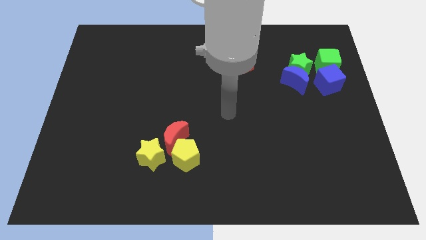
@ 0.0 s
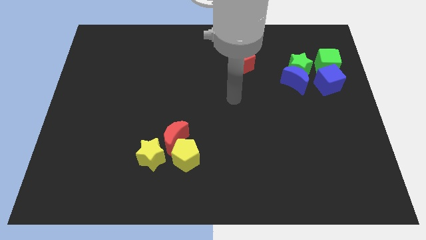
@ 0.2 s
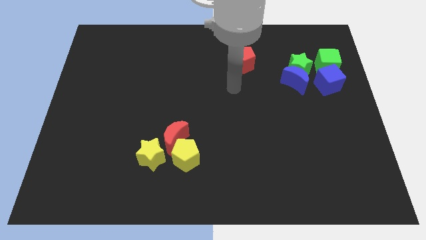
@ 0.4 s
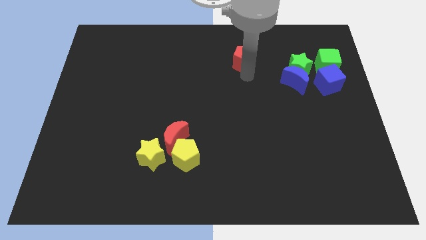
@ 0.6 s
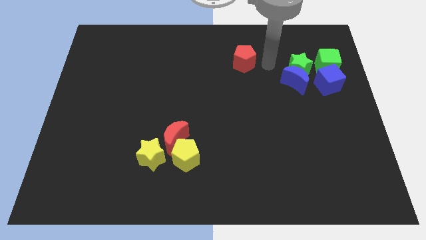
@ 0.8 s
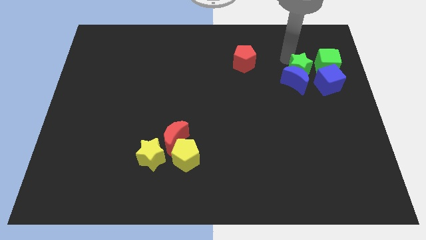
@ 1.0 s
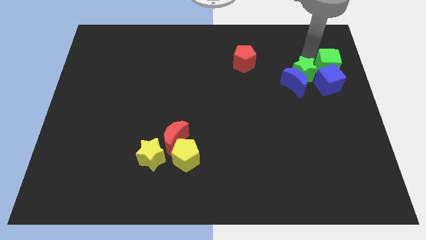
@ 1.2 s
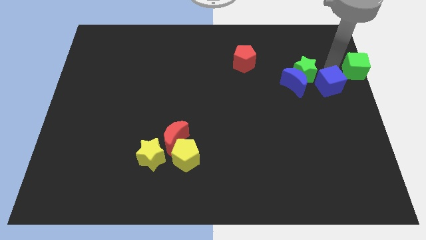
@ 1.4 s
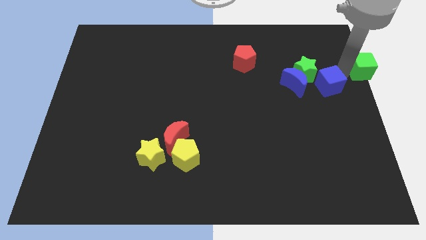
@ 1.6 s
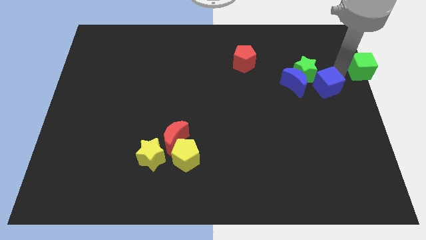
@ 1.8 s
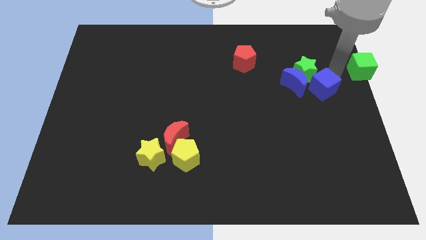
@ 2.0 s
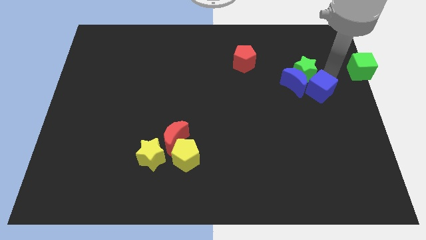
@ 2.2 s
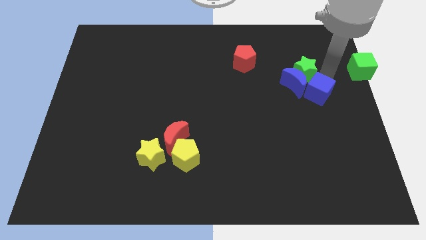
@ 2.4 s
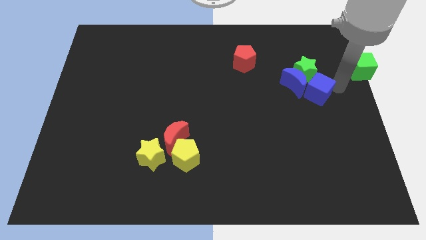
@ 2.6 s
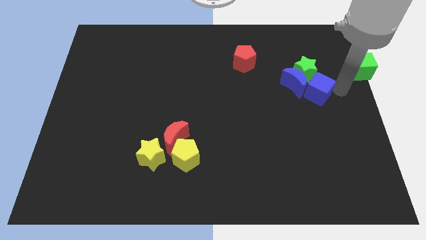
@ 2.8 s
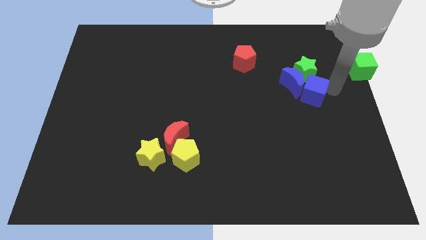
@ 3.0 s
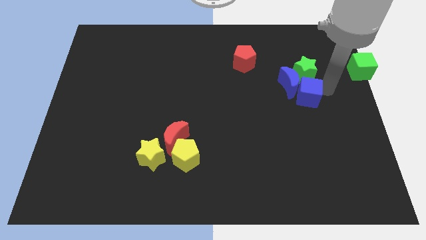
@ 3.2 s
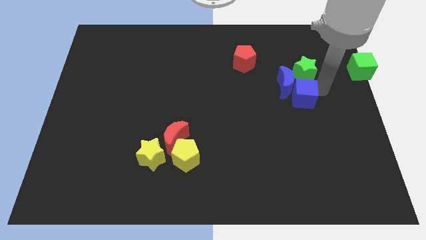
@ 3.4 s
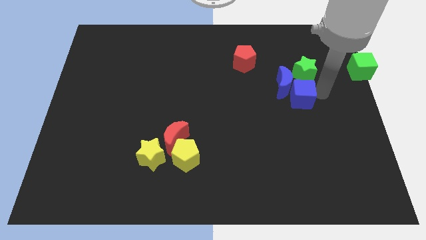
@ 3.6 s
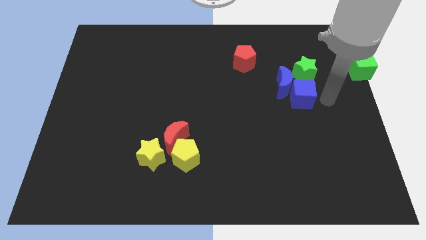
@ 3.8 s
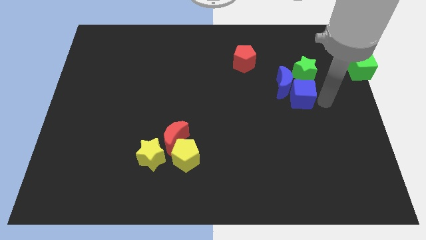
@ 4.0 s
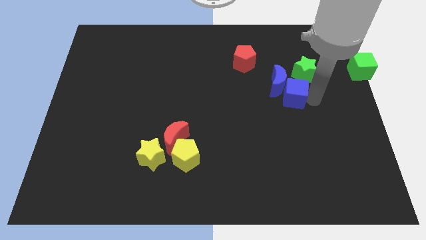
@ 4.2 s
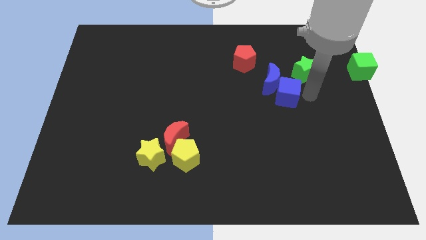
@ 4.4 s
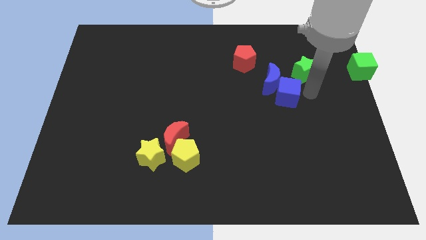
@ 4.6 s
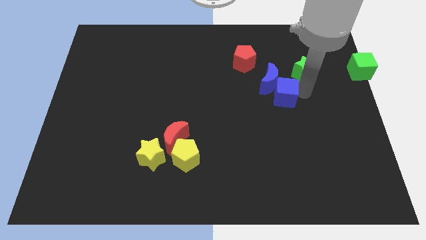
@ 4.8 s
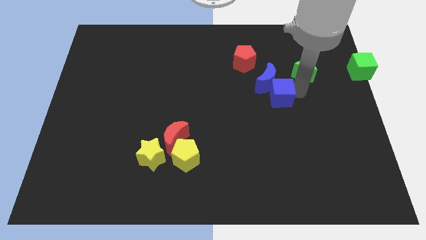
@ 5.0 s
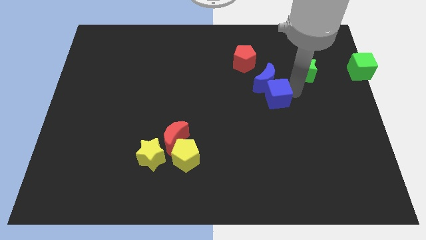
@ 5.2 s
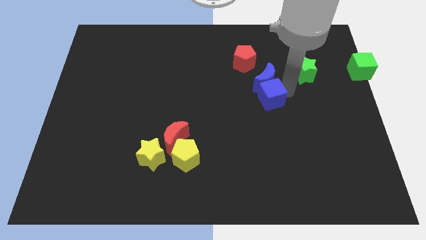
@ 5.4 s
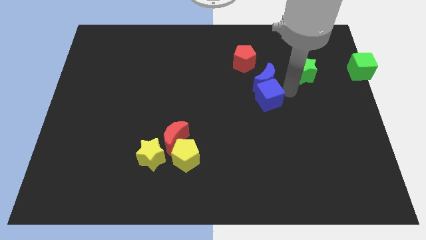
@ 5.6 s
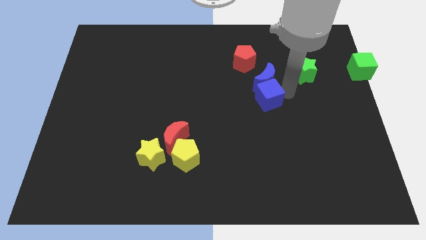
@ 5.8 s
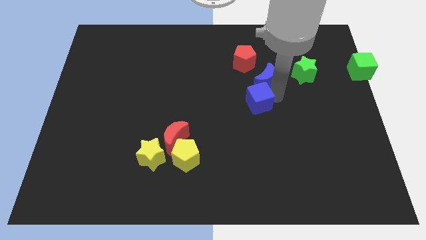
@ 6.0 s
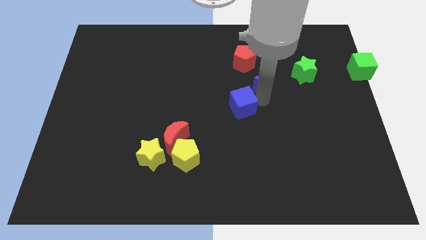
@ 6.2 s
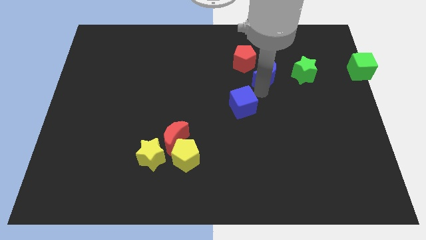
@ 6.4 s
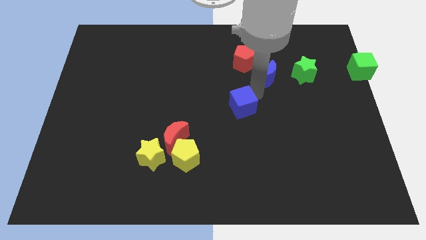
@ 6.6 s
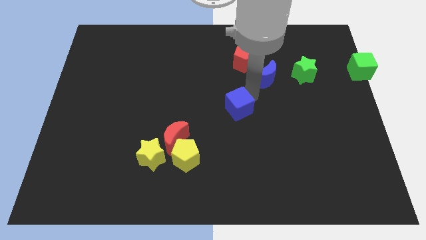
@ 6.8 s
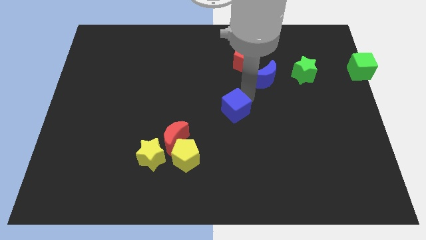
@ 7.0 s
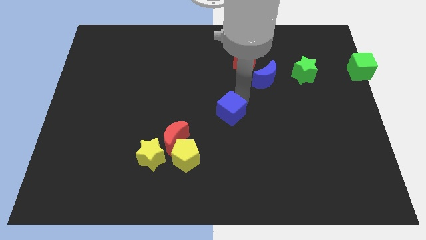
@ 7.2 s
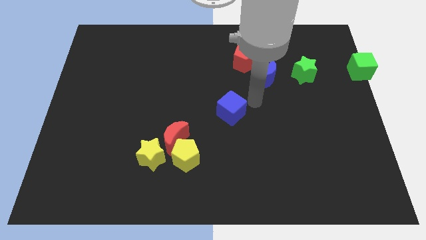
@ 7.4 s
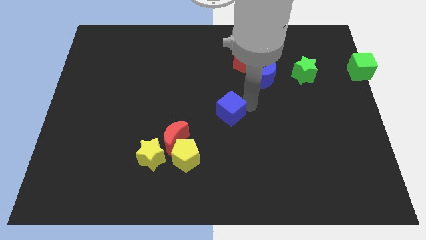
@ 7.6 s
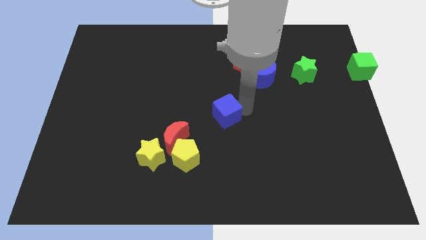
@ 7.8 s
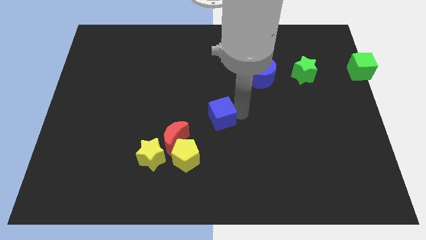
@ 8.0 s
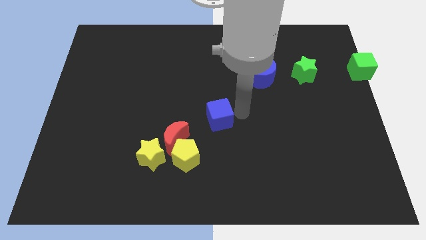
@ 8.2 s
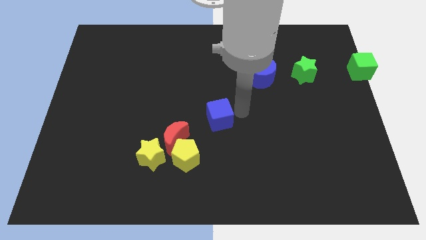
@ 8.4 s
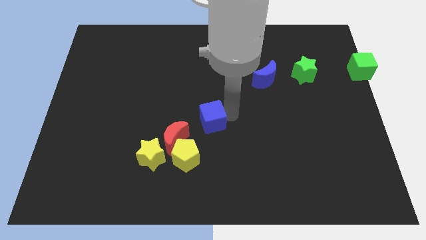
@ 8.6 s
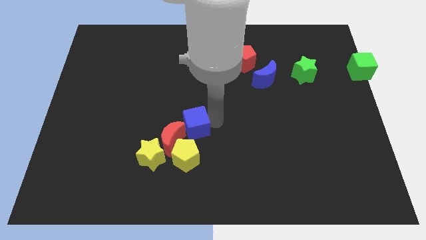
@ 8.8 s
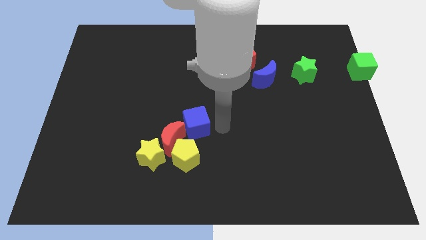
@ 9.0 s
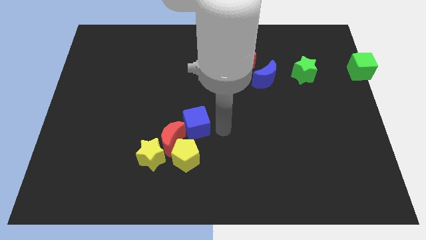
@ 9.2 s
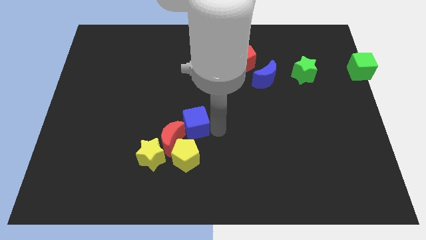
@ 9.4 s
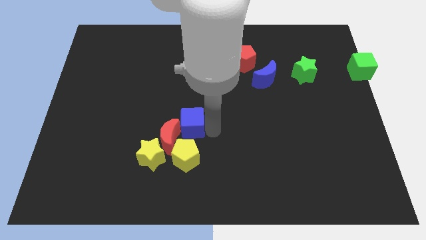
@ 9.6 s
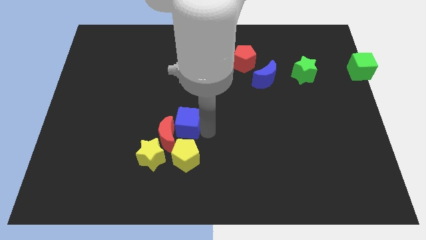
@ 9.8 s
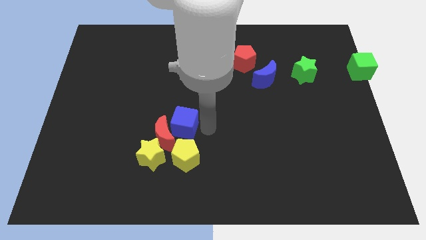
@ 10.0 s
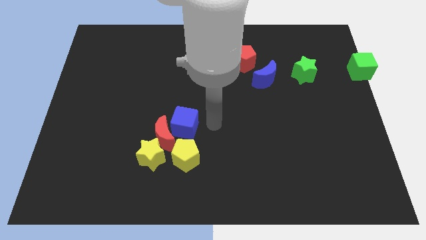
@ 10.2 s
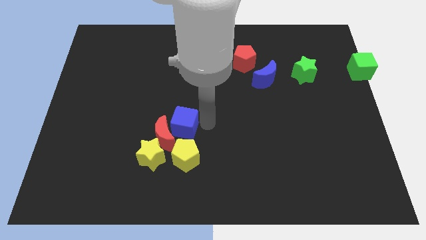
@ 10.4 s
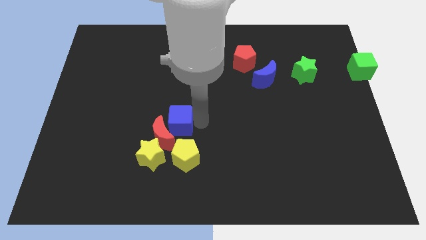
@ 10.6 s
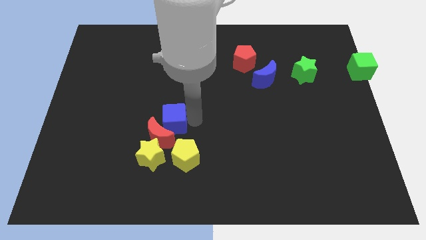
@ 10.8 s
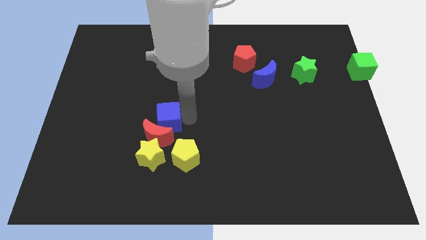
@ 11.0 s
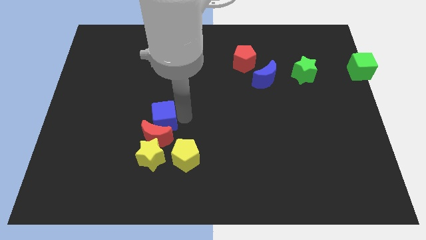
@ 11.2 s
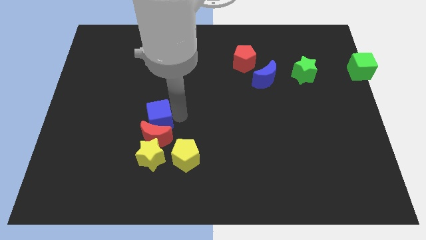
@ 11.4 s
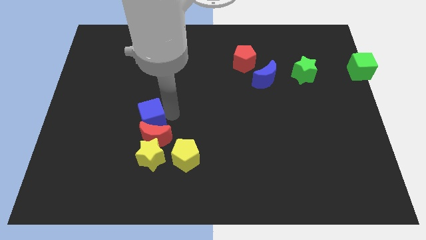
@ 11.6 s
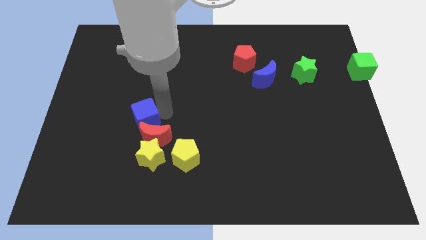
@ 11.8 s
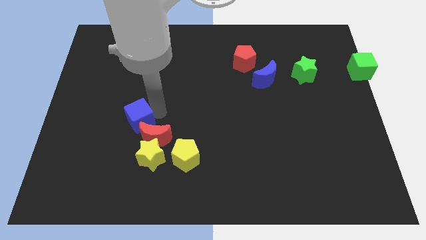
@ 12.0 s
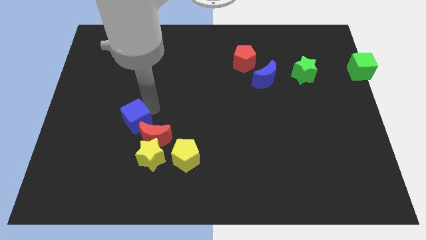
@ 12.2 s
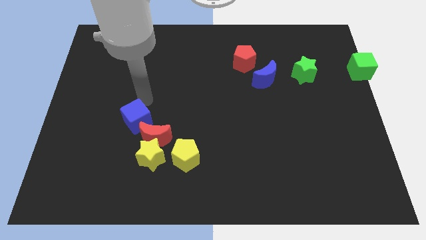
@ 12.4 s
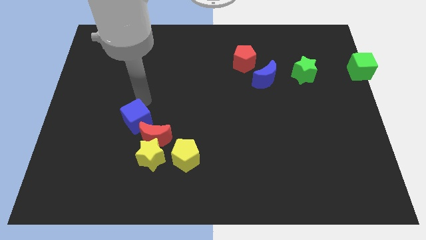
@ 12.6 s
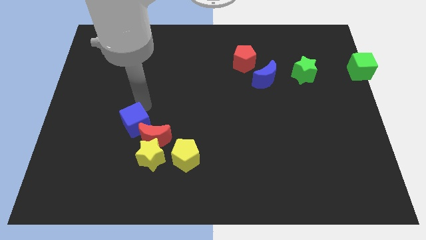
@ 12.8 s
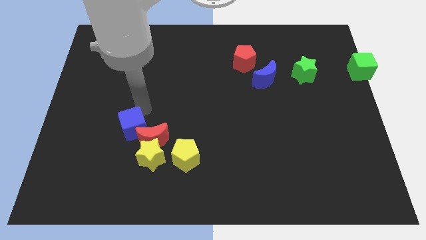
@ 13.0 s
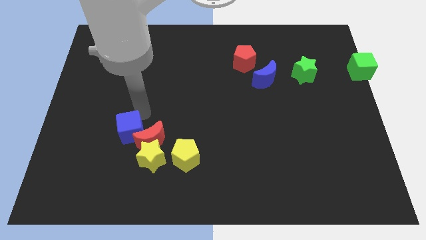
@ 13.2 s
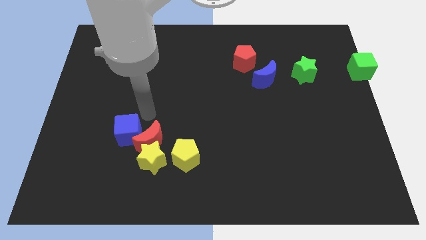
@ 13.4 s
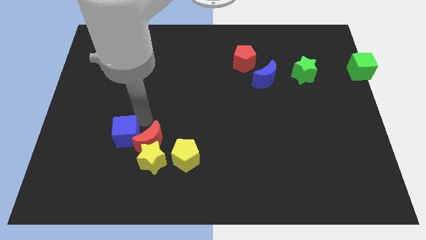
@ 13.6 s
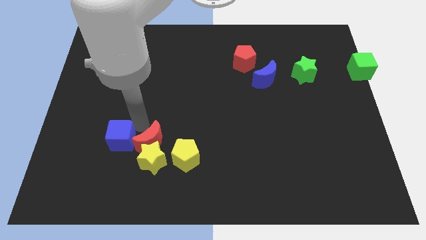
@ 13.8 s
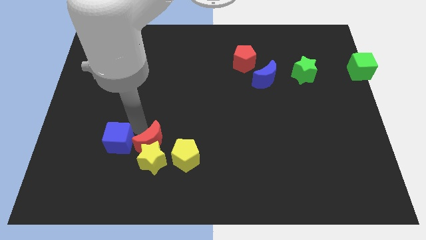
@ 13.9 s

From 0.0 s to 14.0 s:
slide the blue cube to the left of the yellow star
